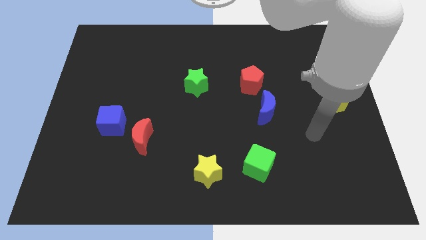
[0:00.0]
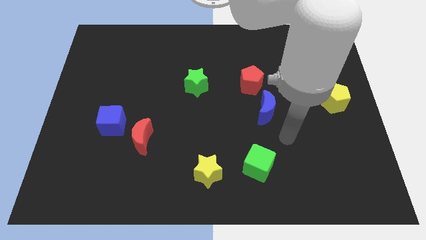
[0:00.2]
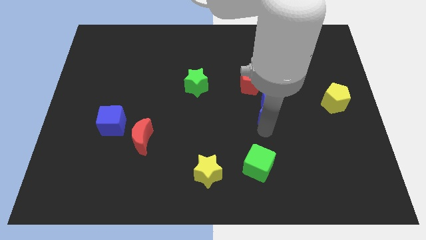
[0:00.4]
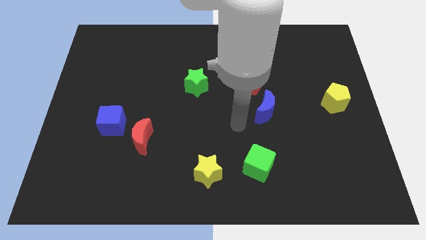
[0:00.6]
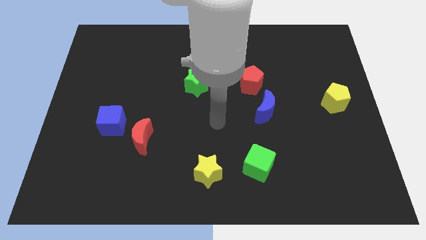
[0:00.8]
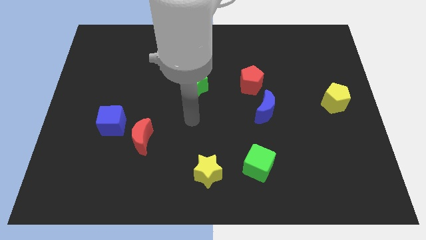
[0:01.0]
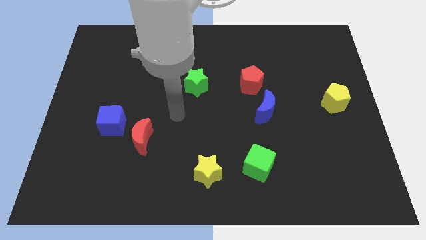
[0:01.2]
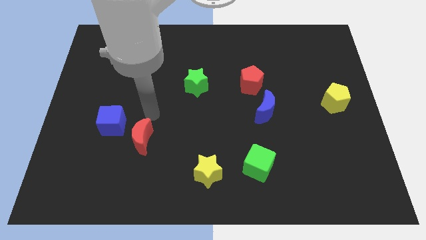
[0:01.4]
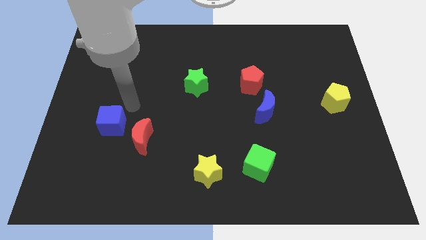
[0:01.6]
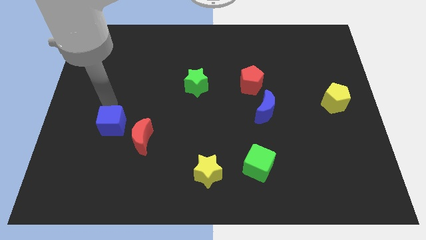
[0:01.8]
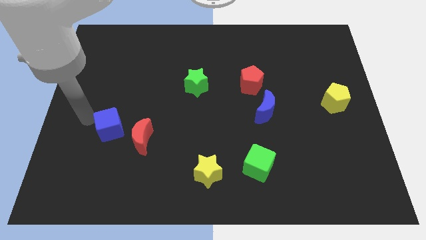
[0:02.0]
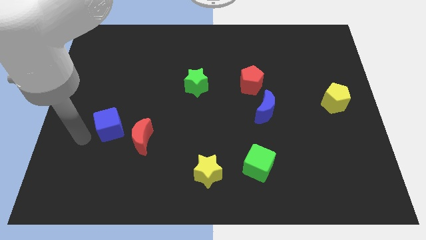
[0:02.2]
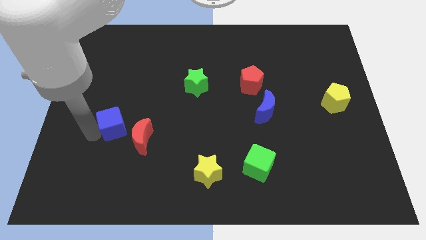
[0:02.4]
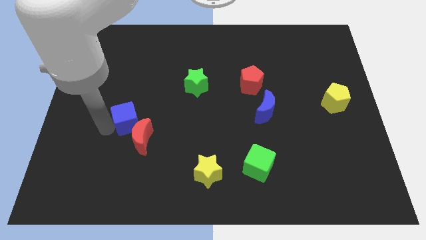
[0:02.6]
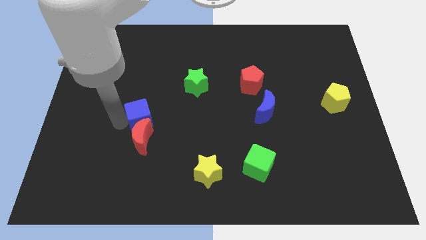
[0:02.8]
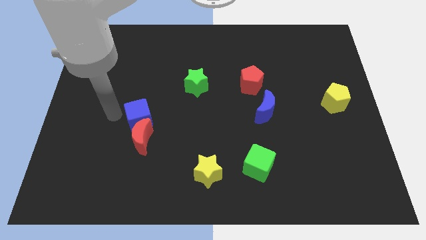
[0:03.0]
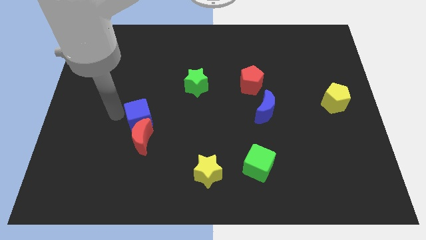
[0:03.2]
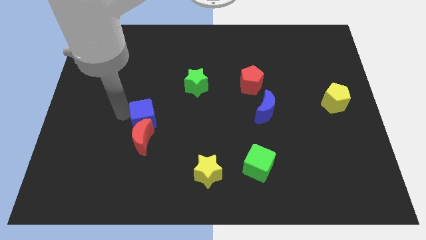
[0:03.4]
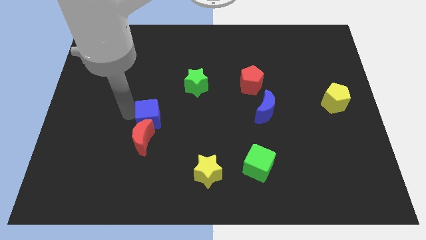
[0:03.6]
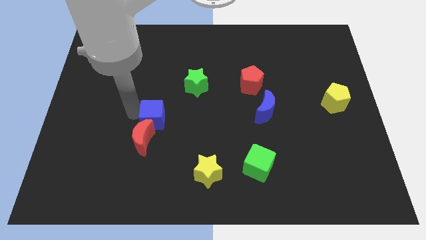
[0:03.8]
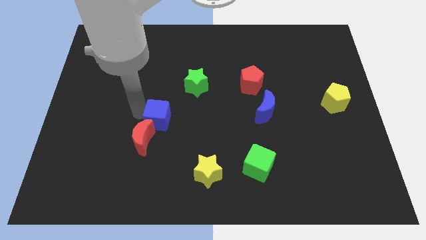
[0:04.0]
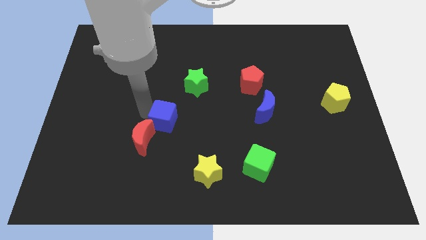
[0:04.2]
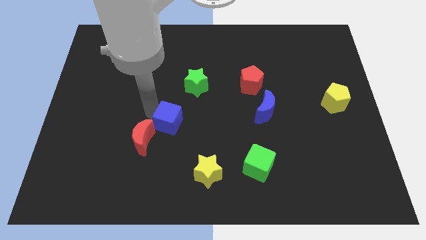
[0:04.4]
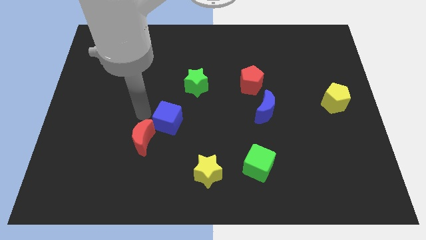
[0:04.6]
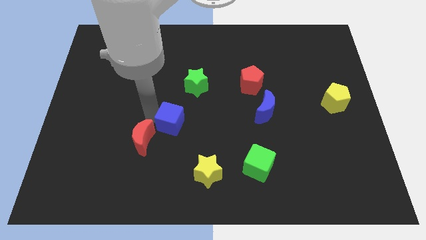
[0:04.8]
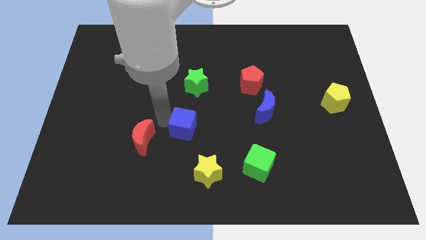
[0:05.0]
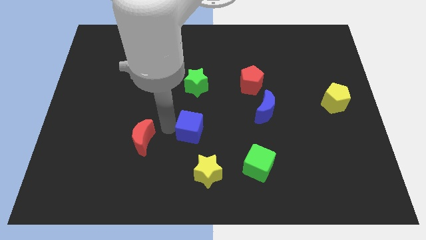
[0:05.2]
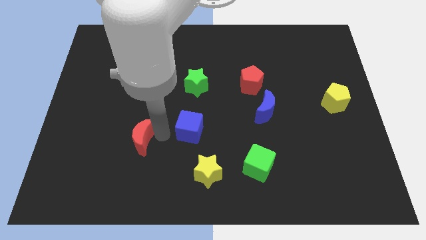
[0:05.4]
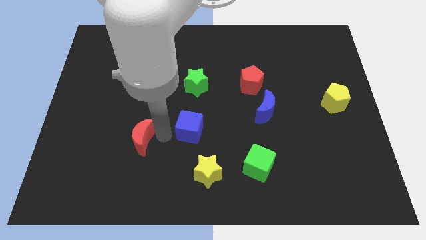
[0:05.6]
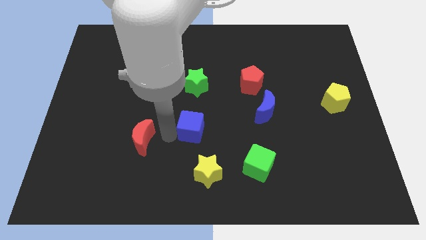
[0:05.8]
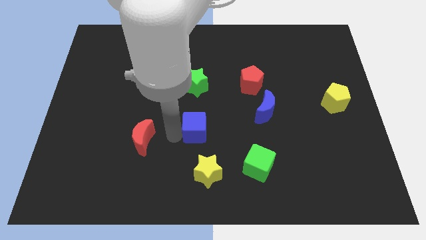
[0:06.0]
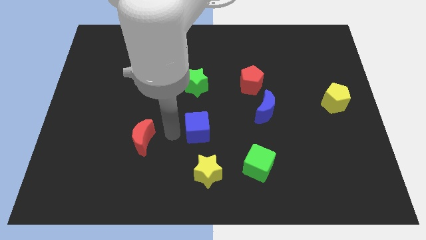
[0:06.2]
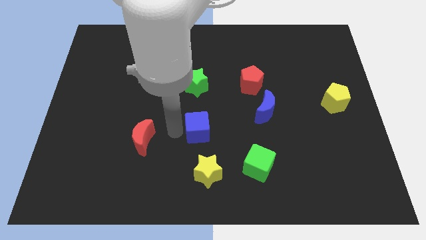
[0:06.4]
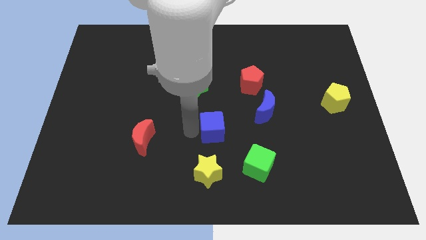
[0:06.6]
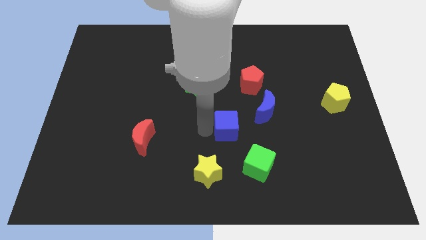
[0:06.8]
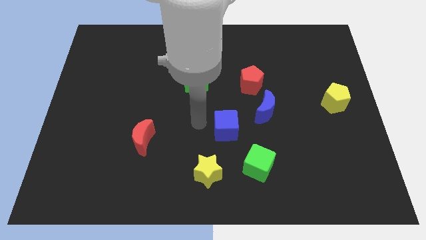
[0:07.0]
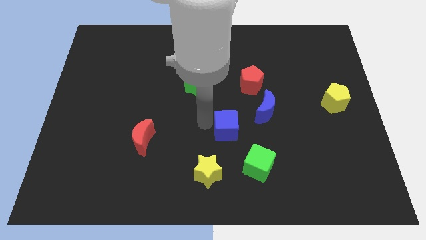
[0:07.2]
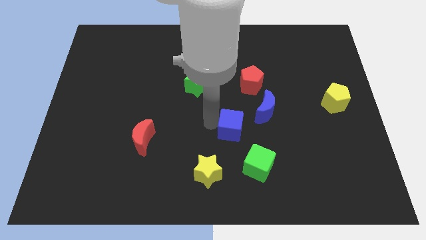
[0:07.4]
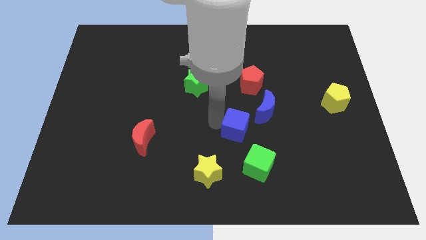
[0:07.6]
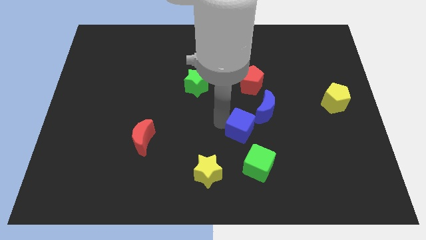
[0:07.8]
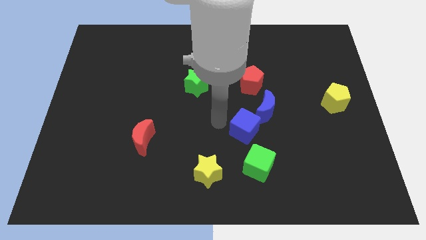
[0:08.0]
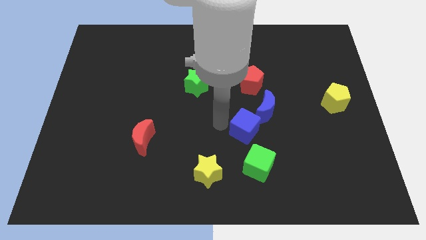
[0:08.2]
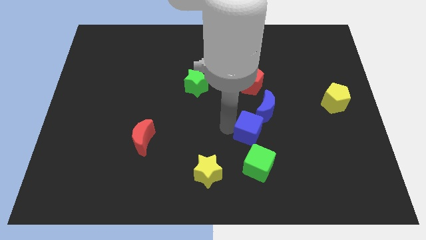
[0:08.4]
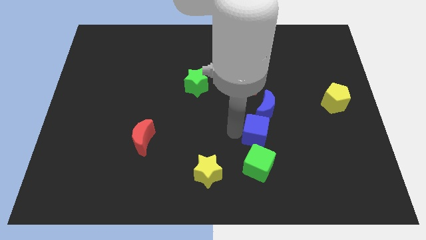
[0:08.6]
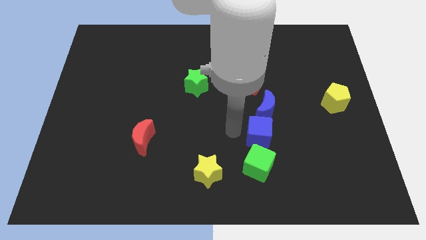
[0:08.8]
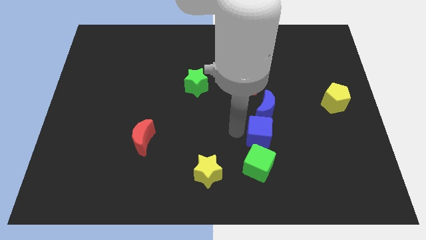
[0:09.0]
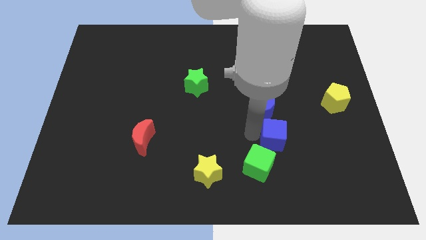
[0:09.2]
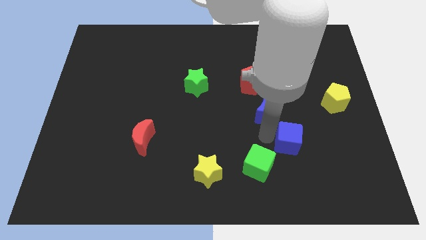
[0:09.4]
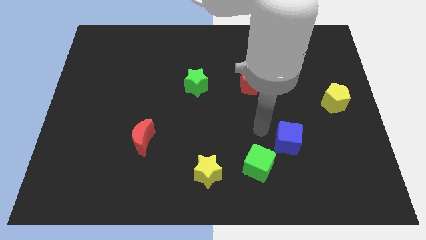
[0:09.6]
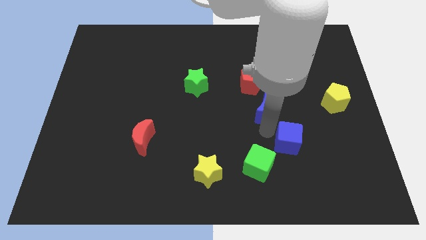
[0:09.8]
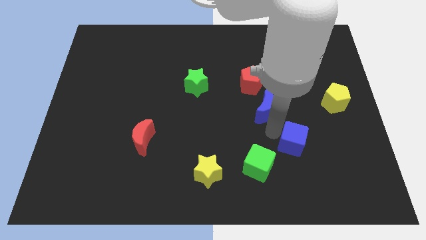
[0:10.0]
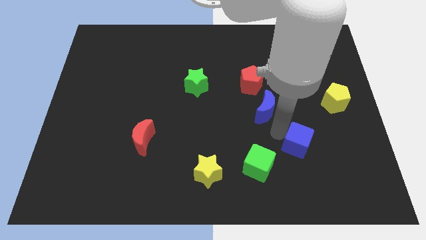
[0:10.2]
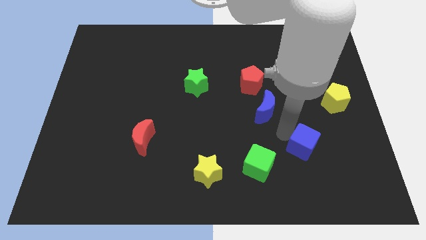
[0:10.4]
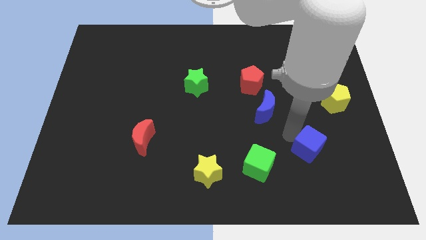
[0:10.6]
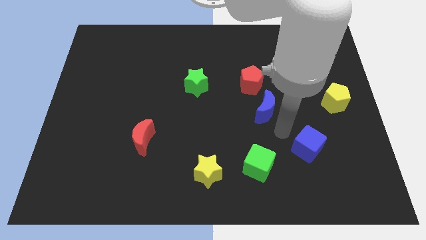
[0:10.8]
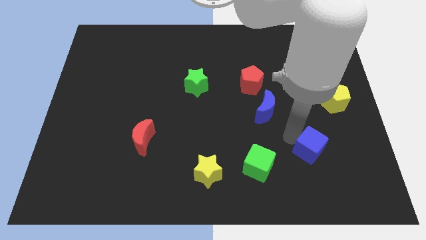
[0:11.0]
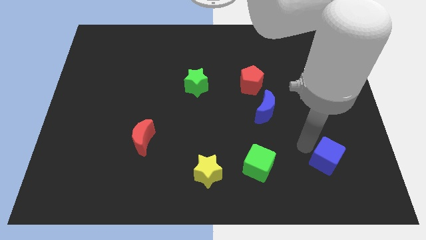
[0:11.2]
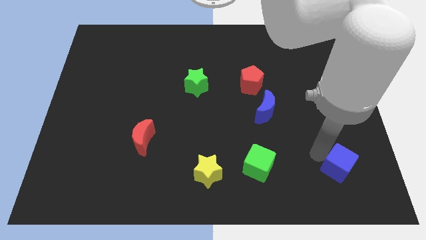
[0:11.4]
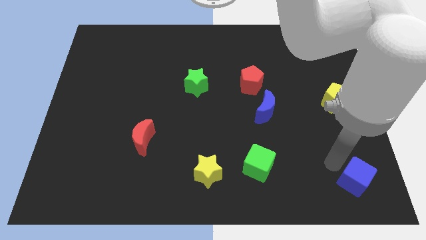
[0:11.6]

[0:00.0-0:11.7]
push the blue cube to the bottom right of the board

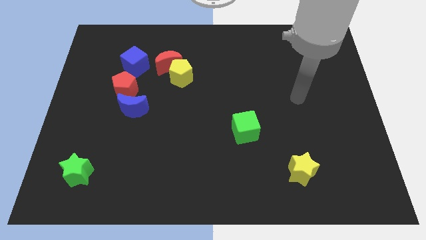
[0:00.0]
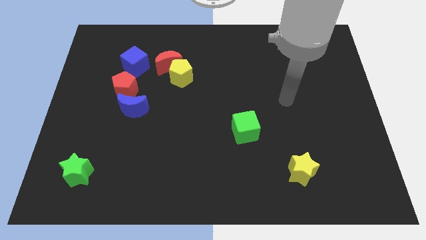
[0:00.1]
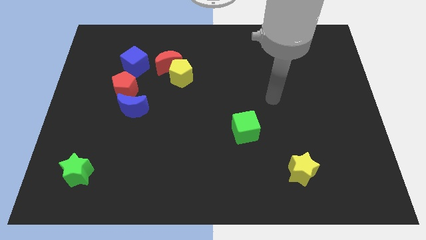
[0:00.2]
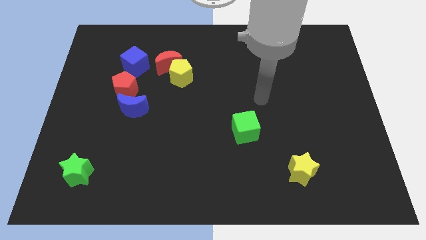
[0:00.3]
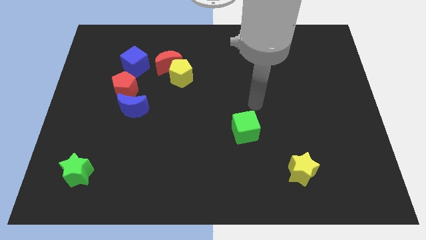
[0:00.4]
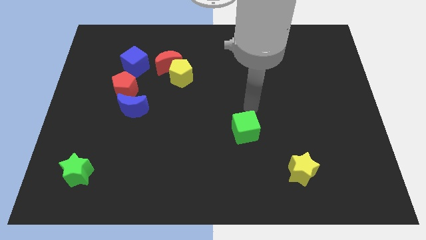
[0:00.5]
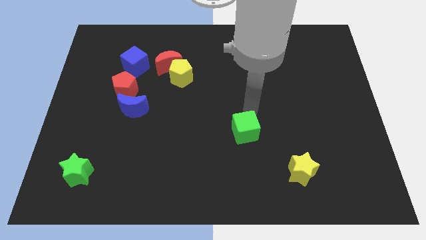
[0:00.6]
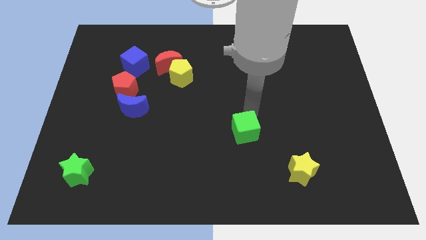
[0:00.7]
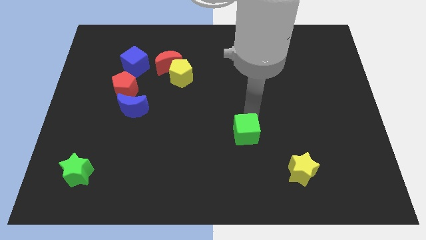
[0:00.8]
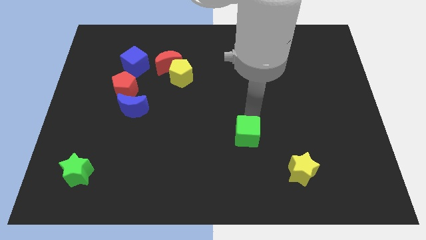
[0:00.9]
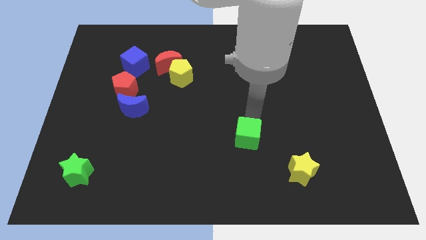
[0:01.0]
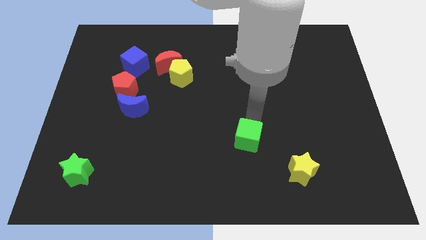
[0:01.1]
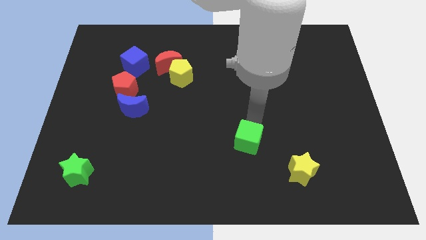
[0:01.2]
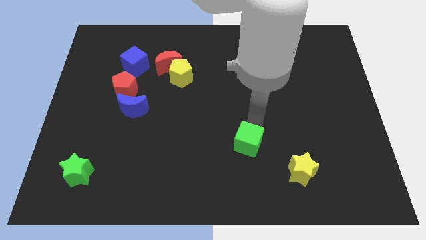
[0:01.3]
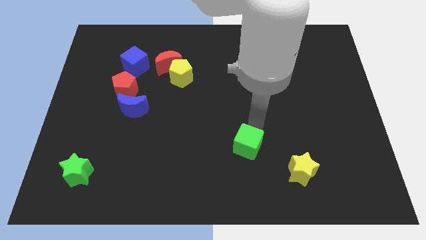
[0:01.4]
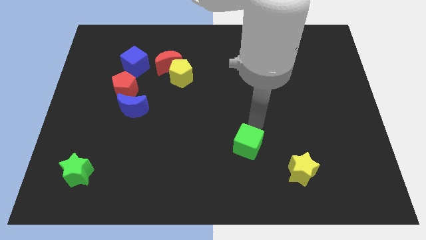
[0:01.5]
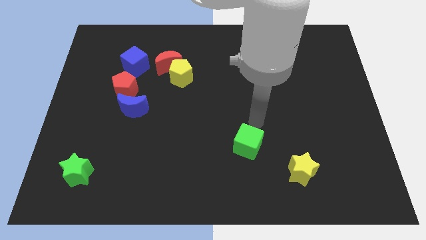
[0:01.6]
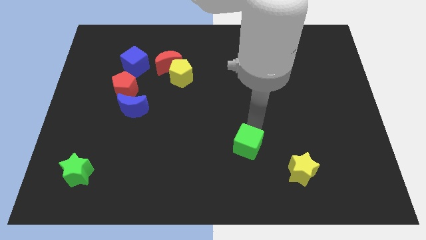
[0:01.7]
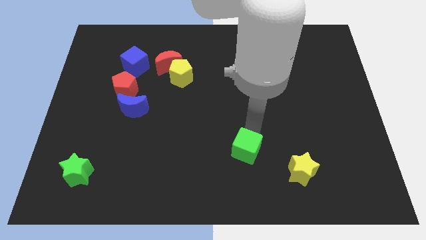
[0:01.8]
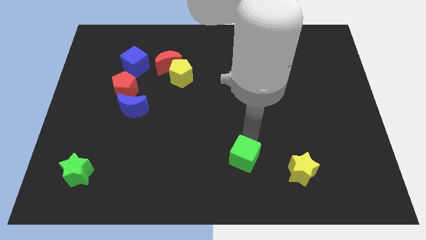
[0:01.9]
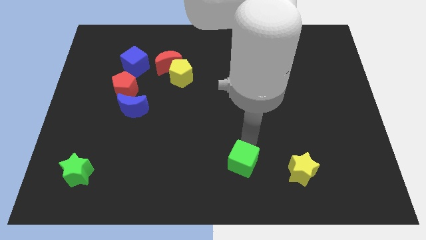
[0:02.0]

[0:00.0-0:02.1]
push the green cube to the bottom side
